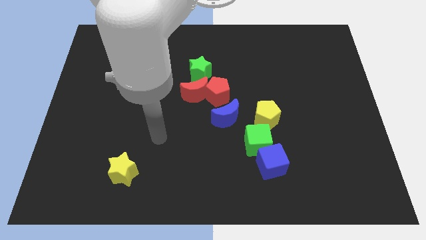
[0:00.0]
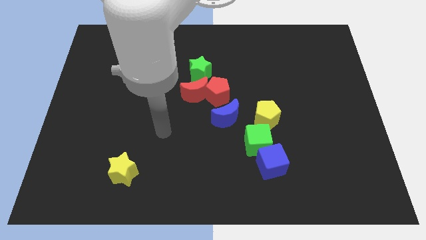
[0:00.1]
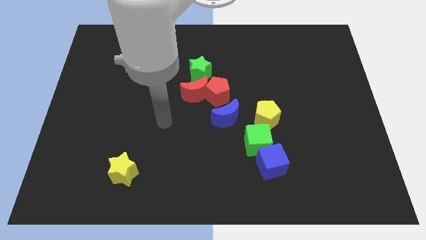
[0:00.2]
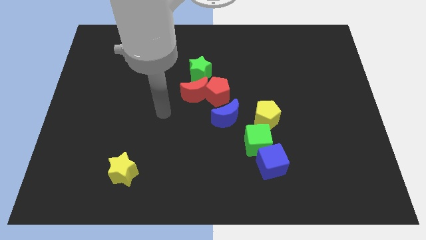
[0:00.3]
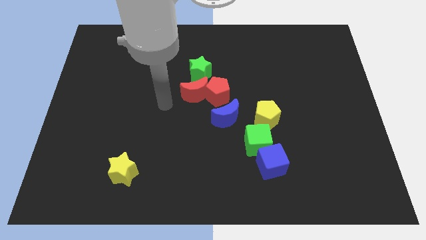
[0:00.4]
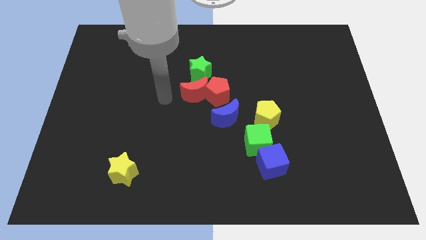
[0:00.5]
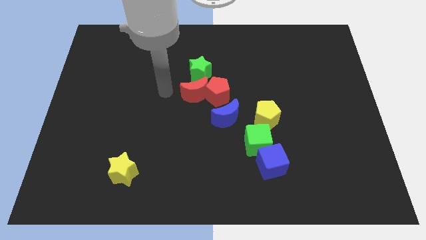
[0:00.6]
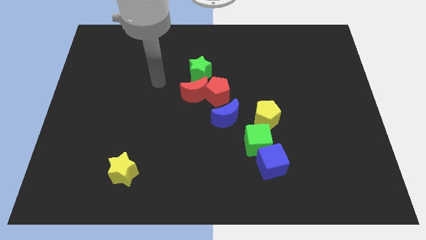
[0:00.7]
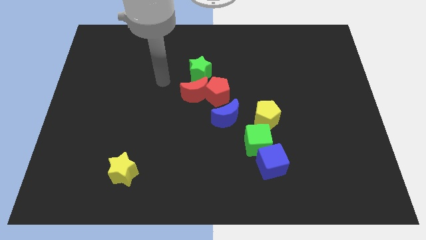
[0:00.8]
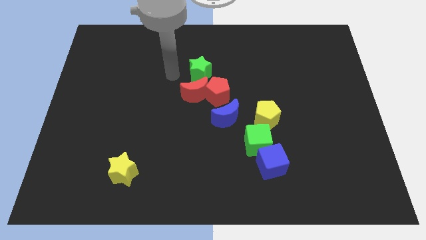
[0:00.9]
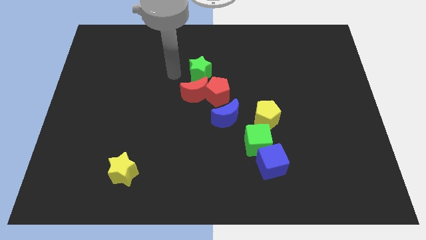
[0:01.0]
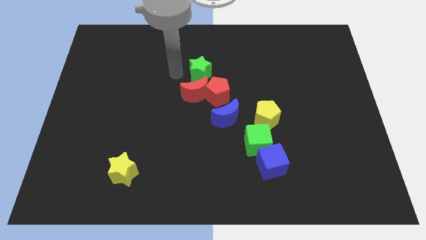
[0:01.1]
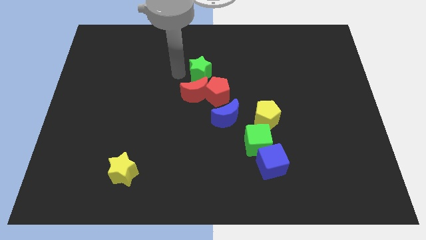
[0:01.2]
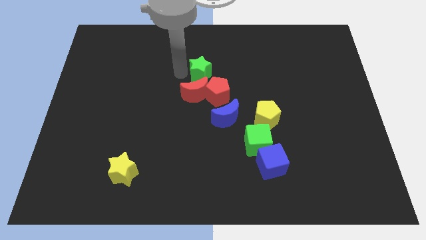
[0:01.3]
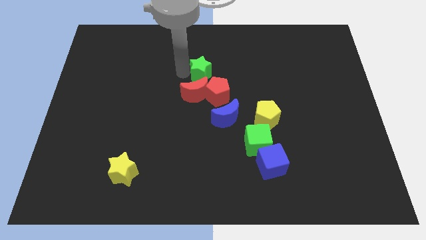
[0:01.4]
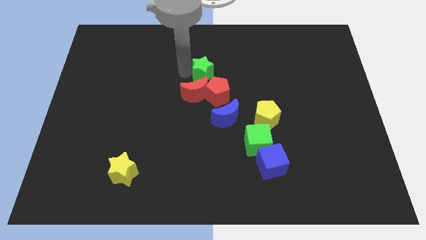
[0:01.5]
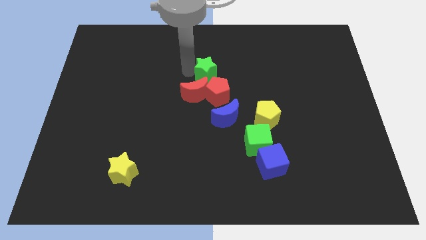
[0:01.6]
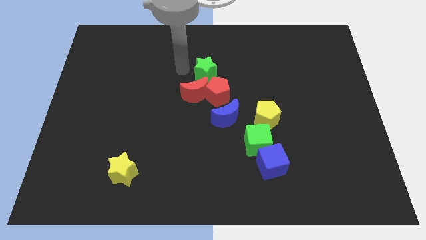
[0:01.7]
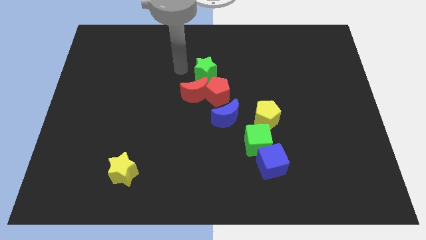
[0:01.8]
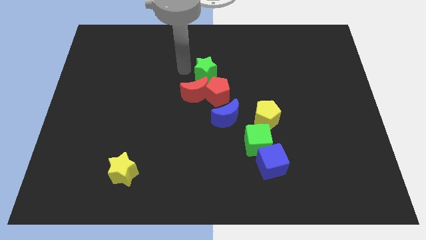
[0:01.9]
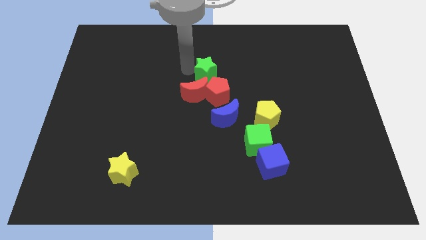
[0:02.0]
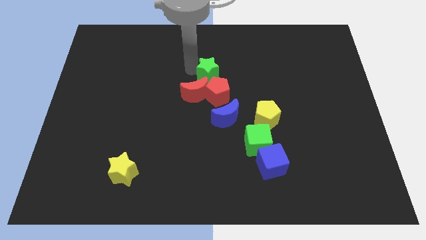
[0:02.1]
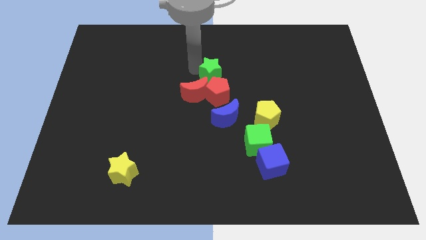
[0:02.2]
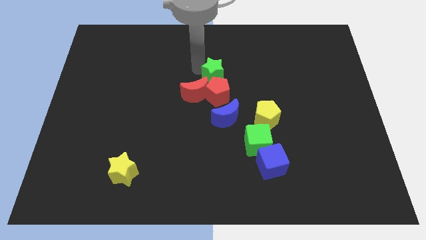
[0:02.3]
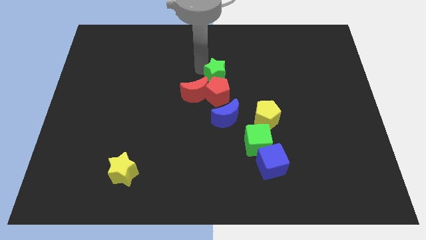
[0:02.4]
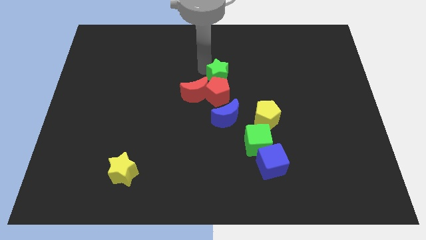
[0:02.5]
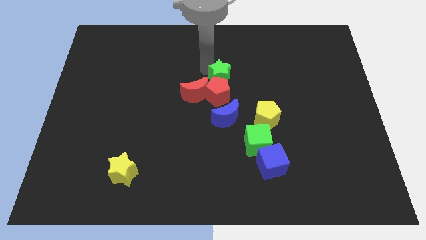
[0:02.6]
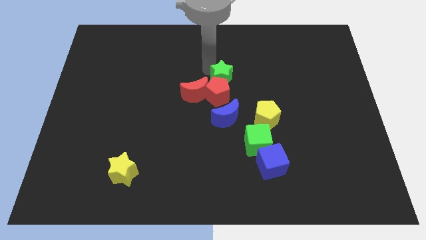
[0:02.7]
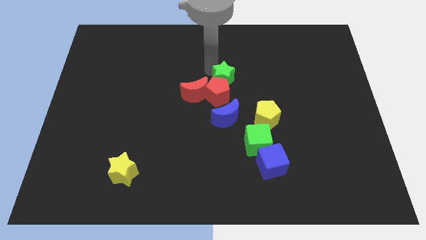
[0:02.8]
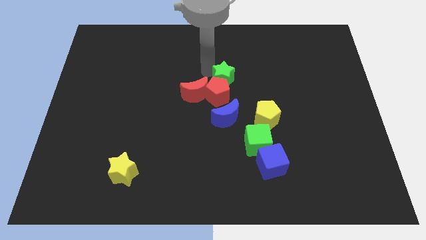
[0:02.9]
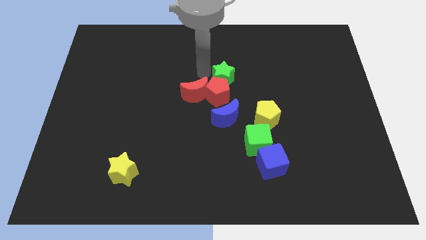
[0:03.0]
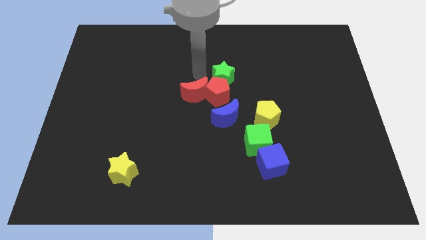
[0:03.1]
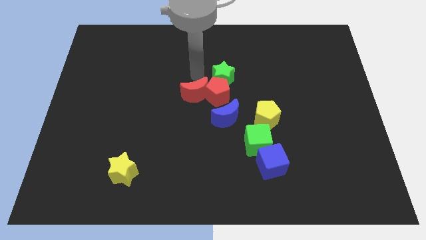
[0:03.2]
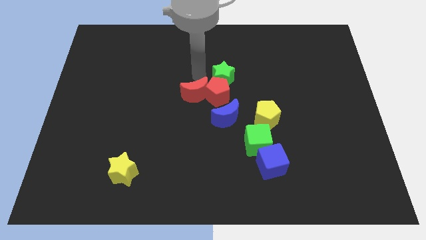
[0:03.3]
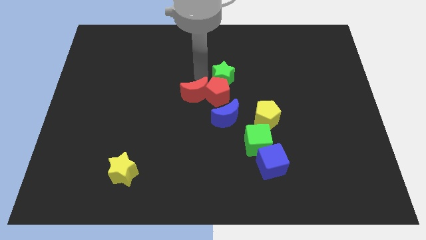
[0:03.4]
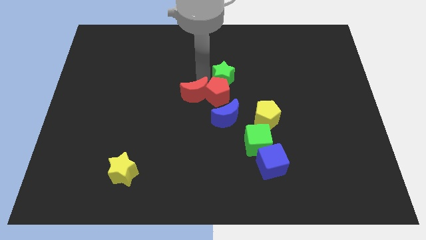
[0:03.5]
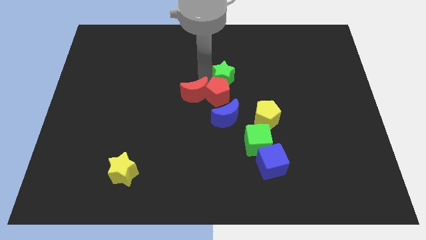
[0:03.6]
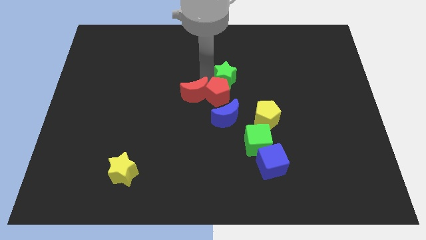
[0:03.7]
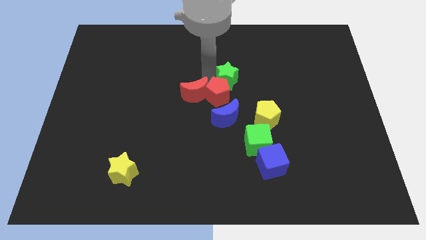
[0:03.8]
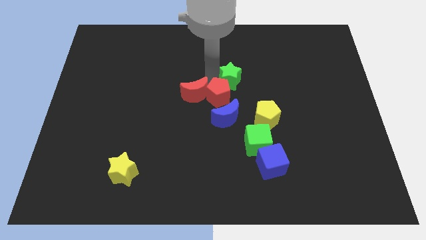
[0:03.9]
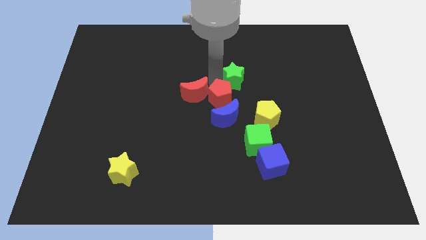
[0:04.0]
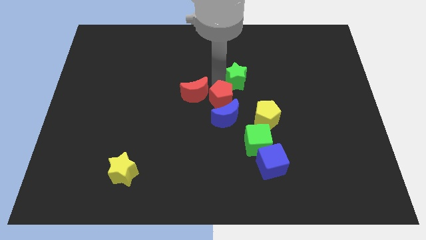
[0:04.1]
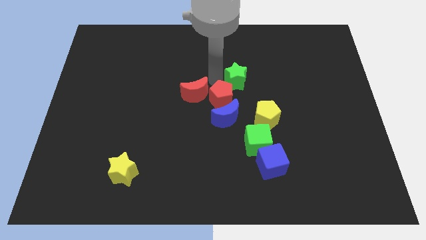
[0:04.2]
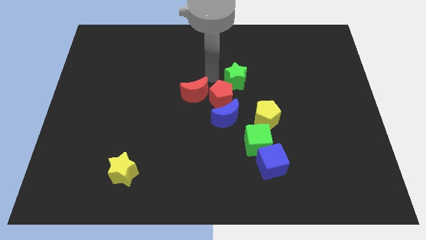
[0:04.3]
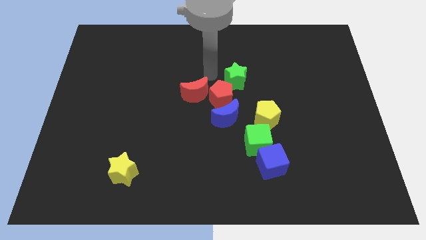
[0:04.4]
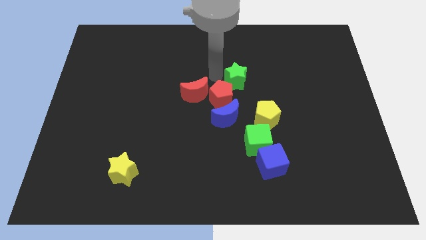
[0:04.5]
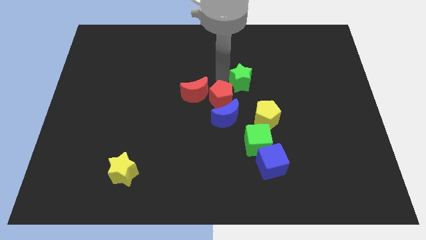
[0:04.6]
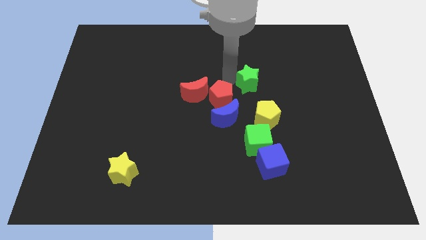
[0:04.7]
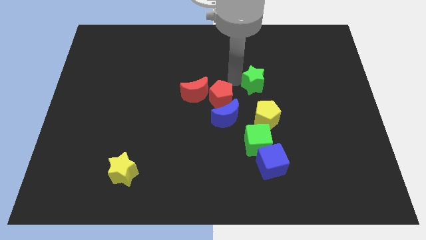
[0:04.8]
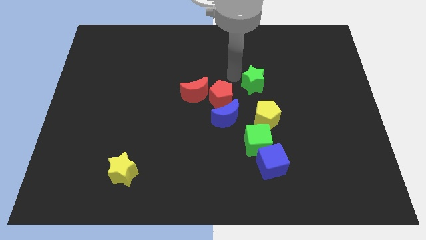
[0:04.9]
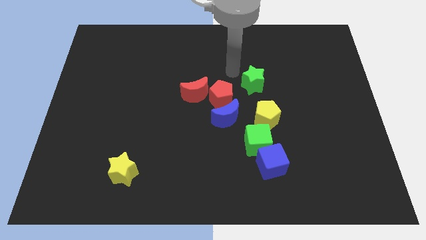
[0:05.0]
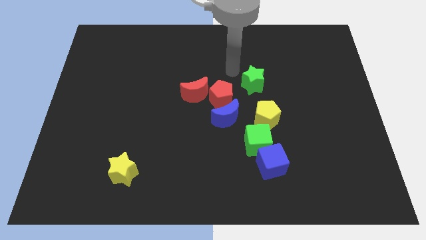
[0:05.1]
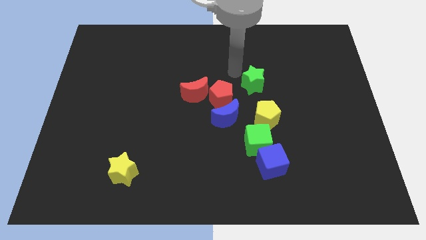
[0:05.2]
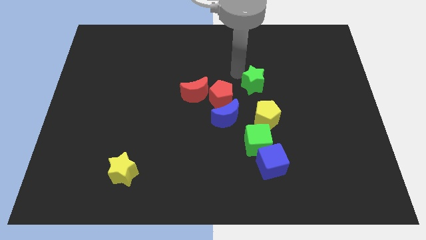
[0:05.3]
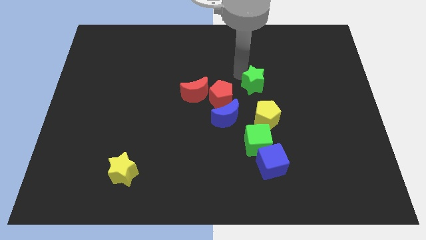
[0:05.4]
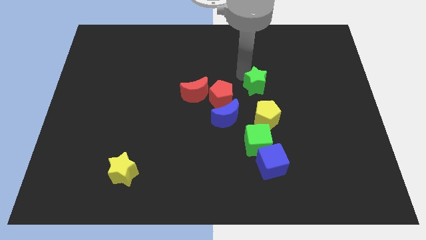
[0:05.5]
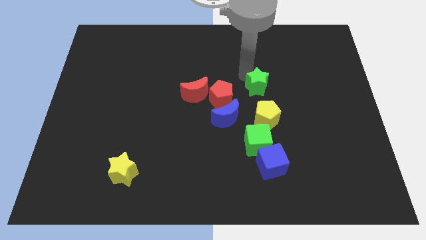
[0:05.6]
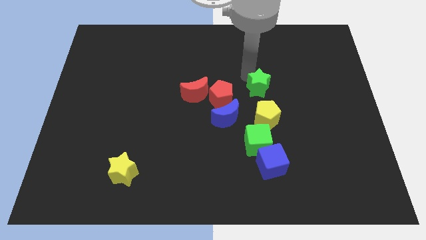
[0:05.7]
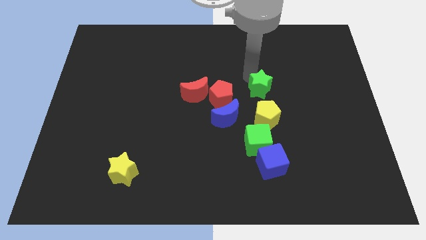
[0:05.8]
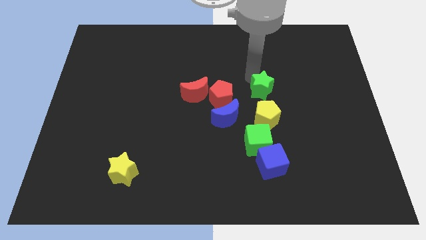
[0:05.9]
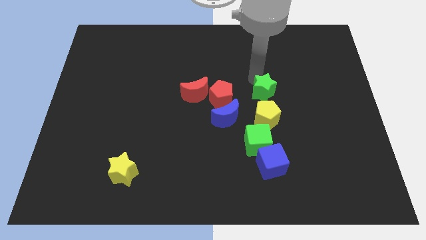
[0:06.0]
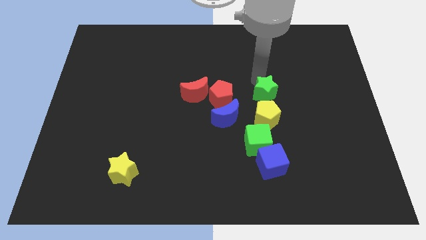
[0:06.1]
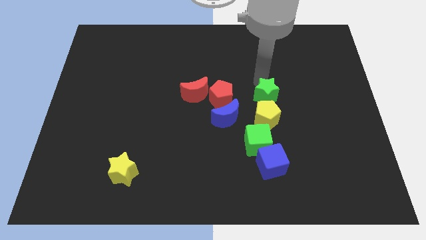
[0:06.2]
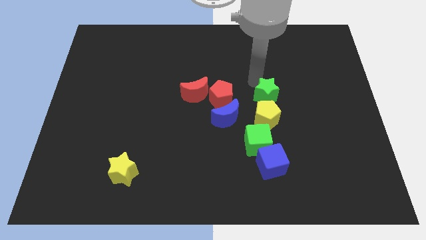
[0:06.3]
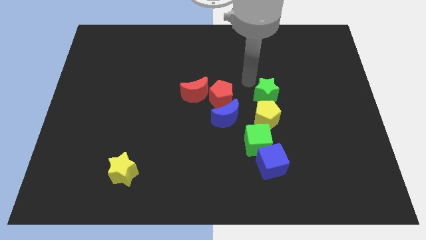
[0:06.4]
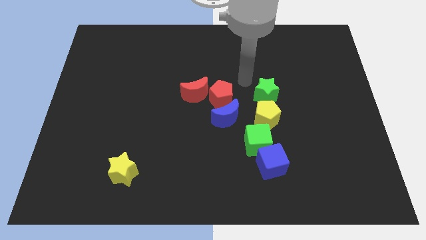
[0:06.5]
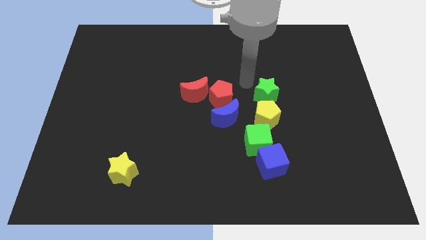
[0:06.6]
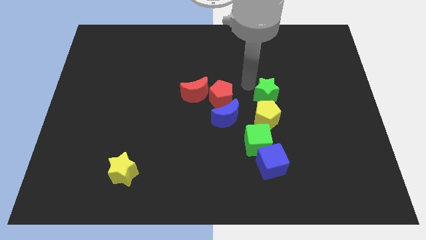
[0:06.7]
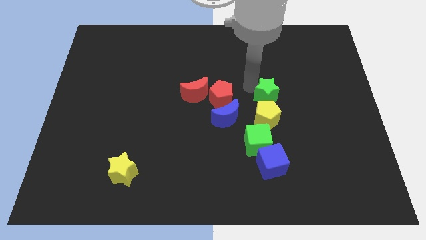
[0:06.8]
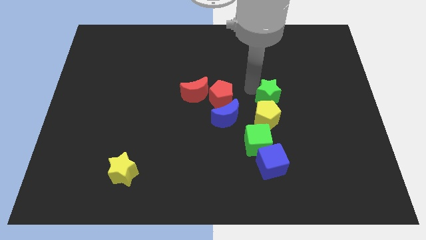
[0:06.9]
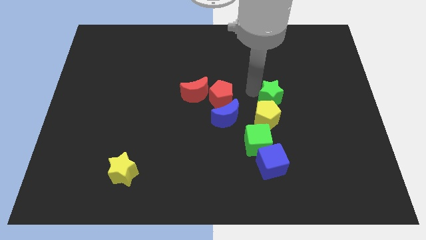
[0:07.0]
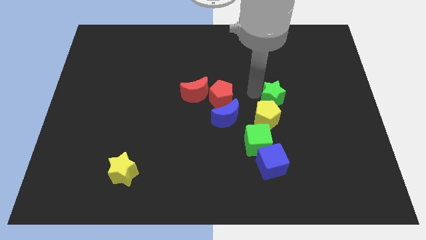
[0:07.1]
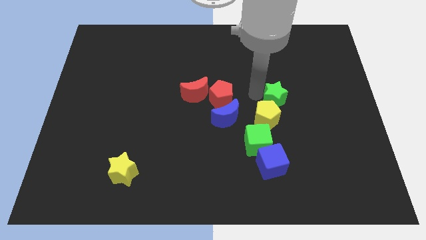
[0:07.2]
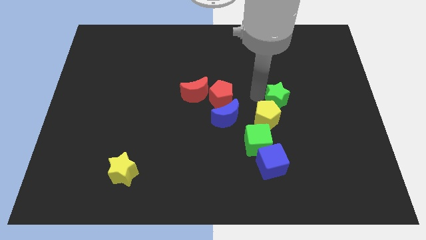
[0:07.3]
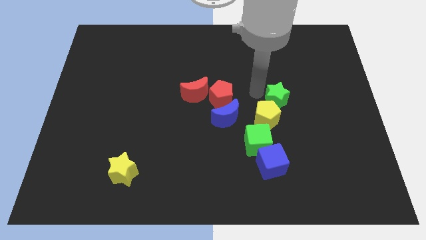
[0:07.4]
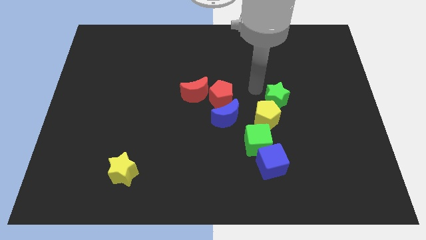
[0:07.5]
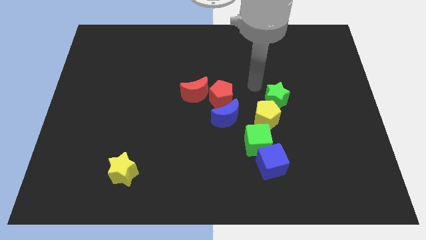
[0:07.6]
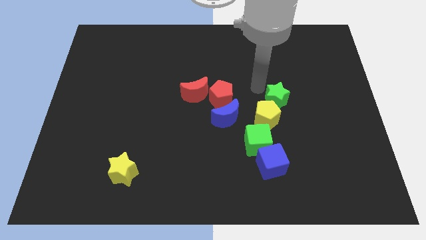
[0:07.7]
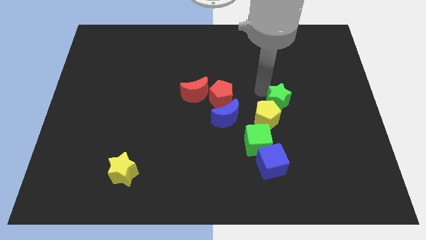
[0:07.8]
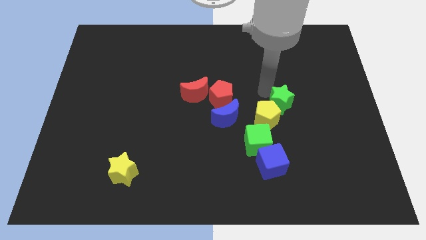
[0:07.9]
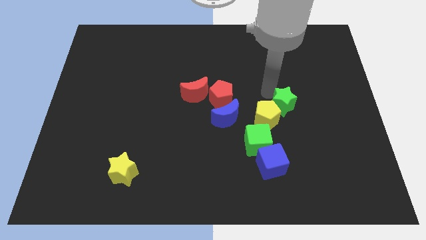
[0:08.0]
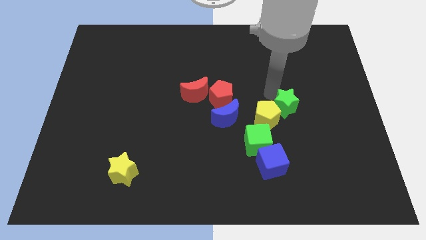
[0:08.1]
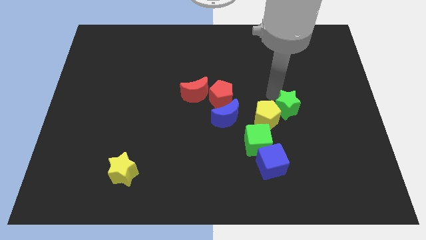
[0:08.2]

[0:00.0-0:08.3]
slide the green star down and to the right
